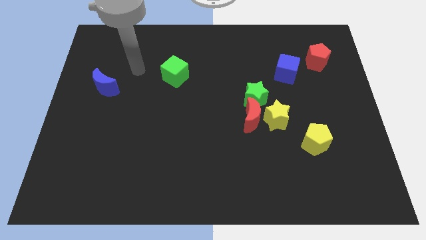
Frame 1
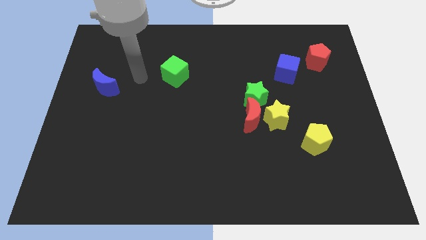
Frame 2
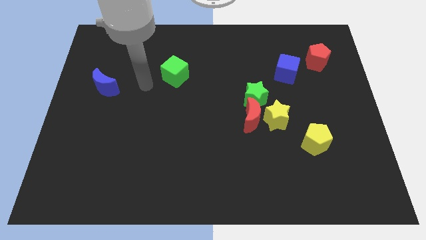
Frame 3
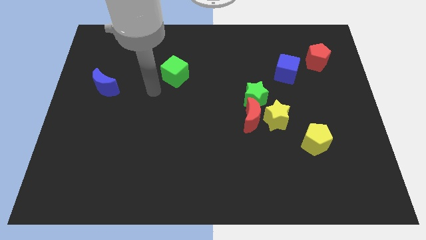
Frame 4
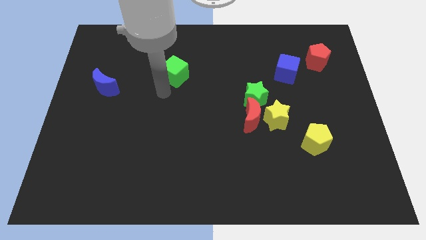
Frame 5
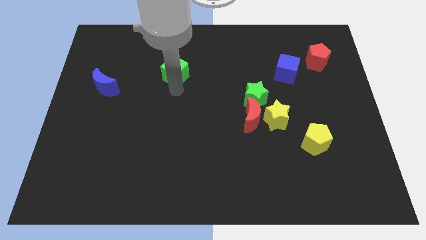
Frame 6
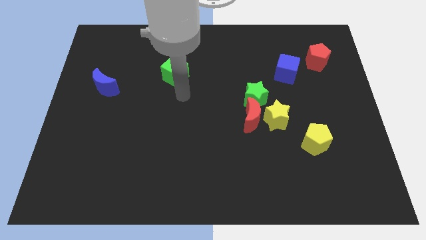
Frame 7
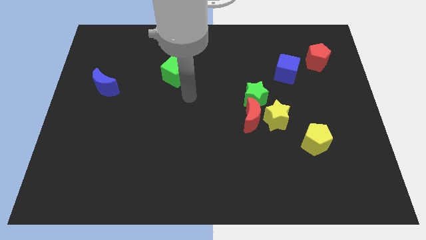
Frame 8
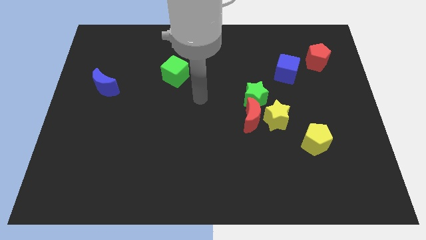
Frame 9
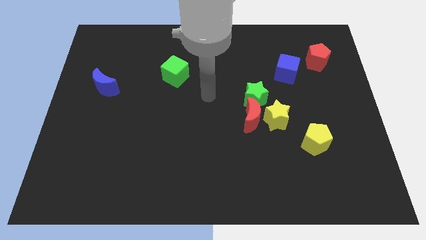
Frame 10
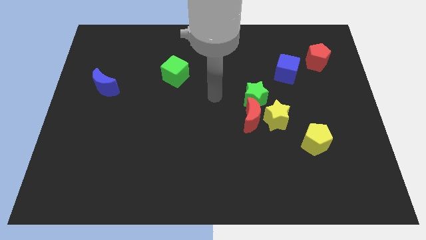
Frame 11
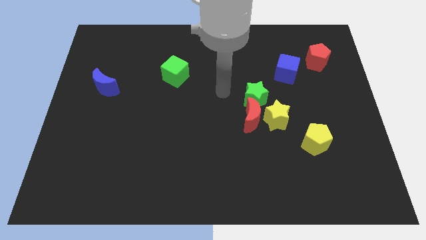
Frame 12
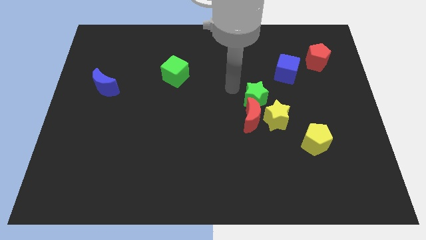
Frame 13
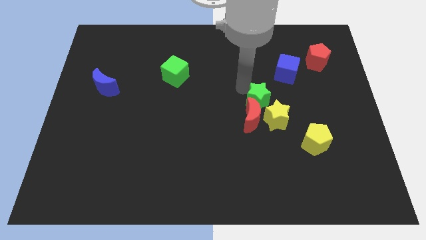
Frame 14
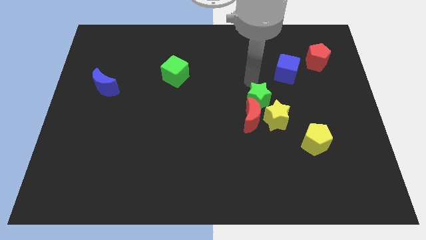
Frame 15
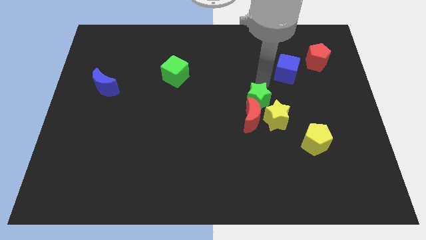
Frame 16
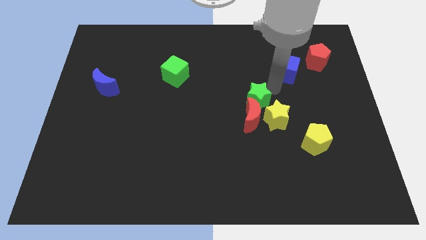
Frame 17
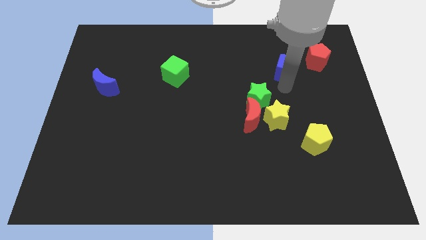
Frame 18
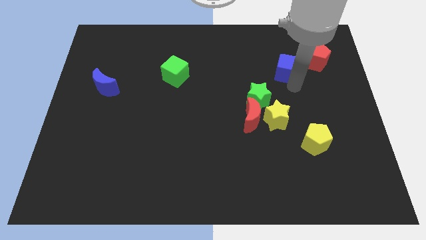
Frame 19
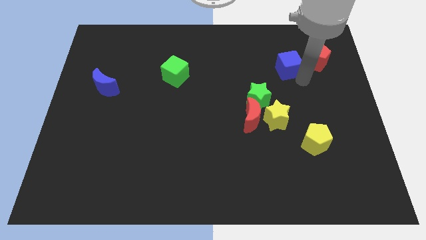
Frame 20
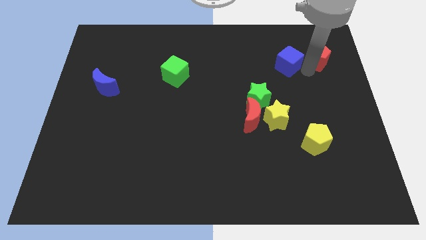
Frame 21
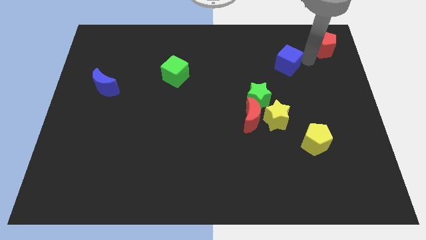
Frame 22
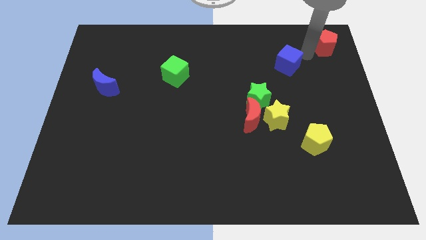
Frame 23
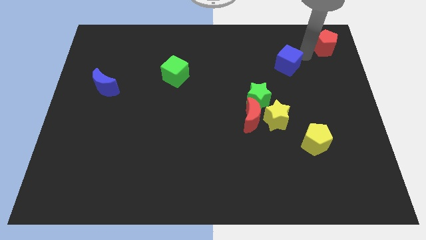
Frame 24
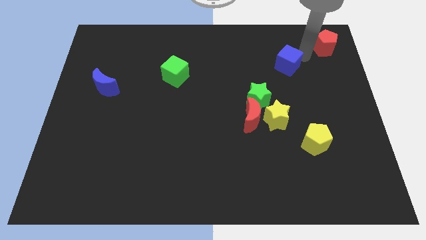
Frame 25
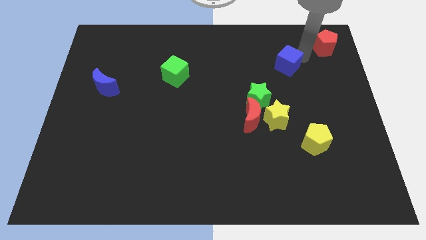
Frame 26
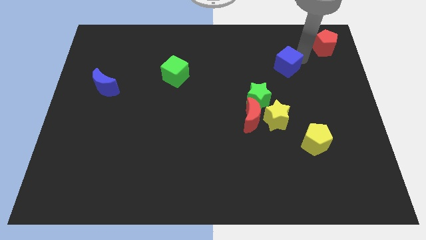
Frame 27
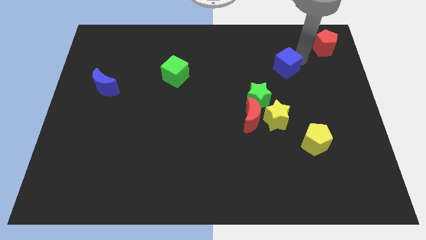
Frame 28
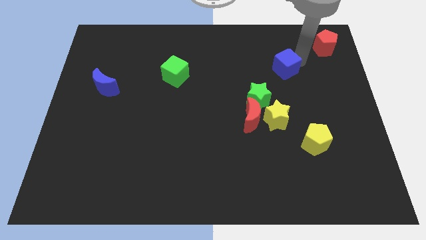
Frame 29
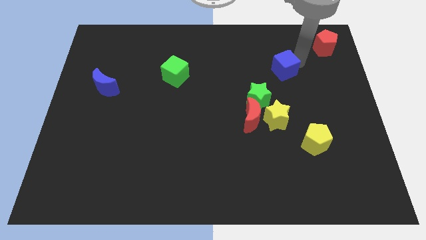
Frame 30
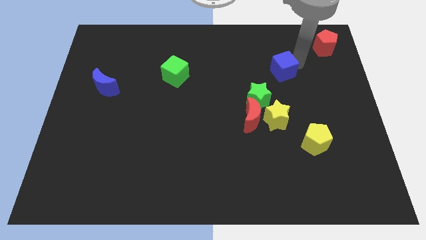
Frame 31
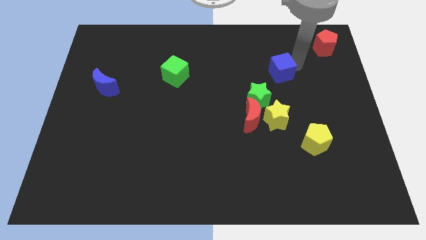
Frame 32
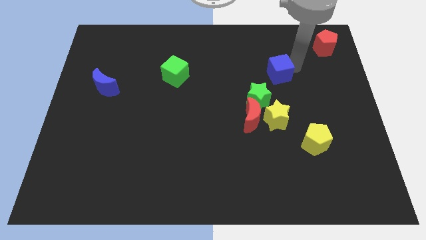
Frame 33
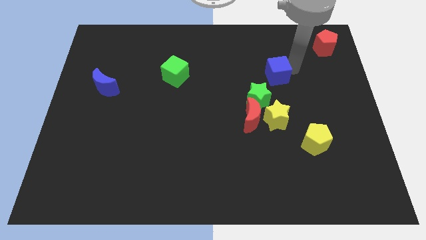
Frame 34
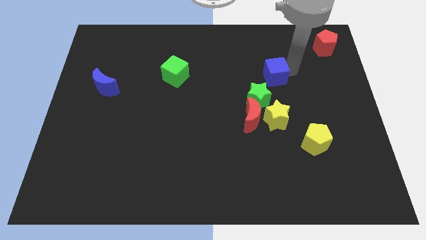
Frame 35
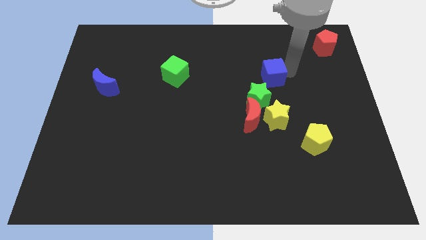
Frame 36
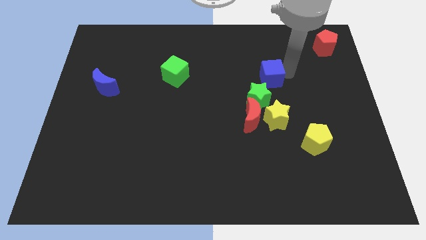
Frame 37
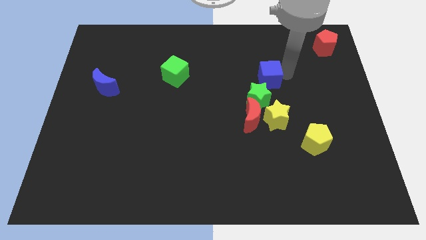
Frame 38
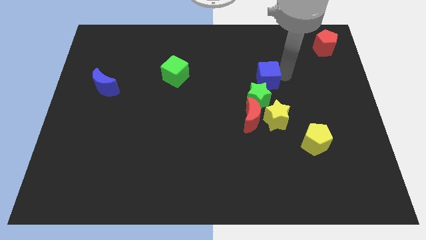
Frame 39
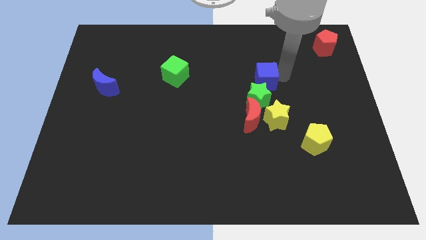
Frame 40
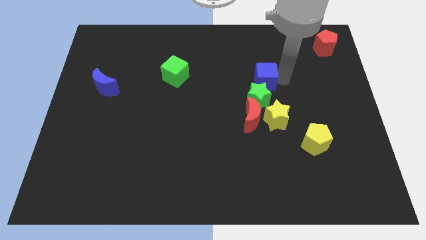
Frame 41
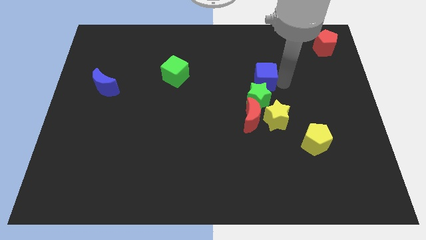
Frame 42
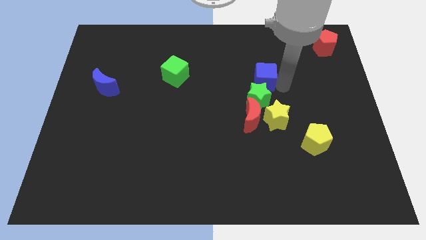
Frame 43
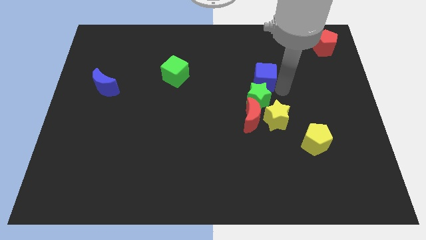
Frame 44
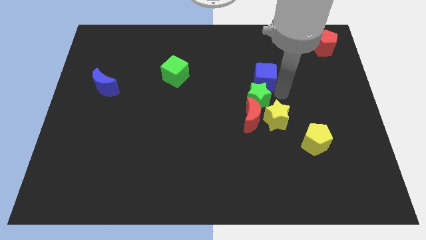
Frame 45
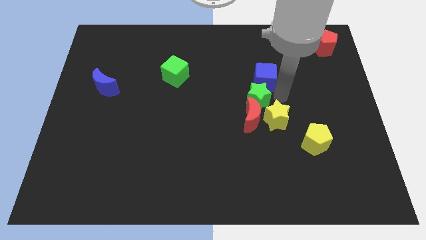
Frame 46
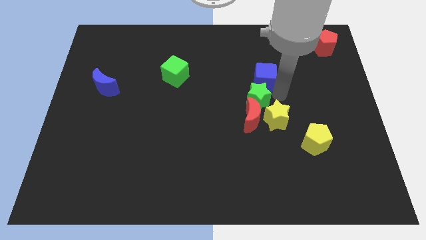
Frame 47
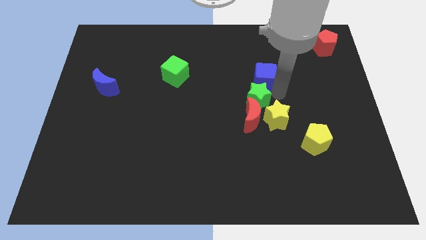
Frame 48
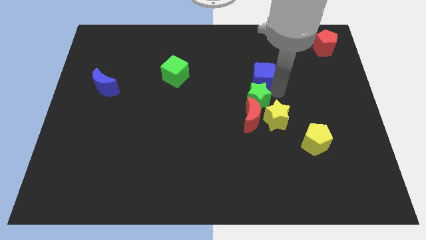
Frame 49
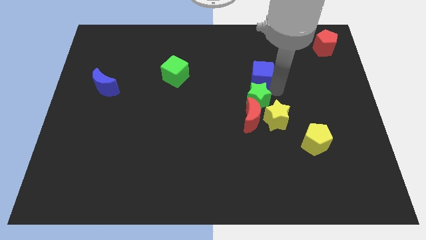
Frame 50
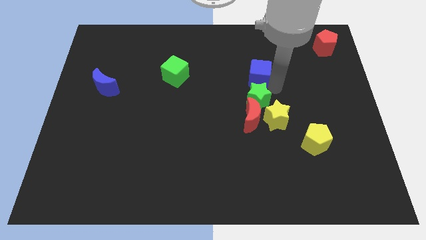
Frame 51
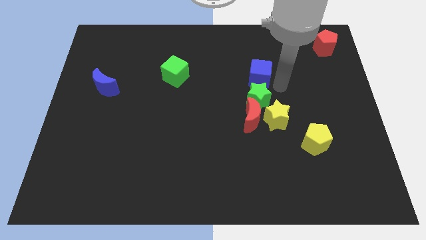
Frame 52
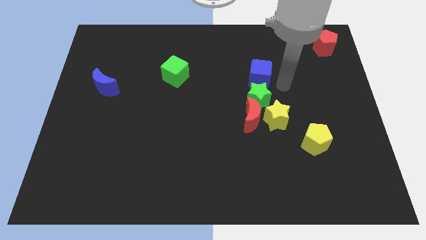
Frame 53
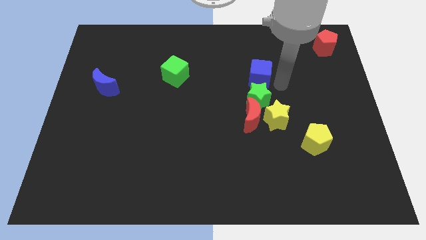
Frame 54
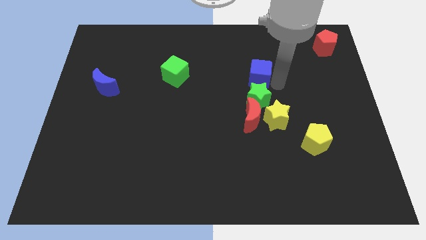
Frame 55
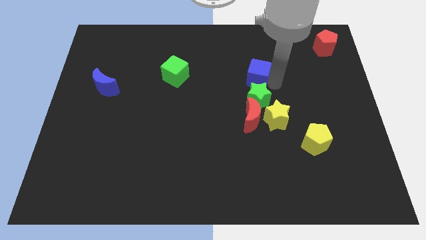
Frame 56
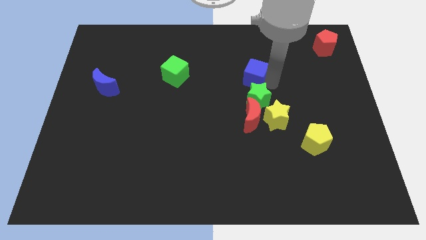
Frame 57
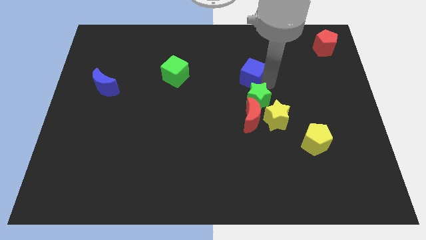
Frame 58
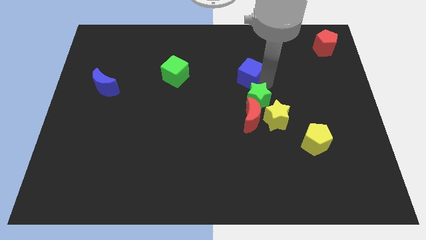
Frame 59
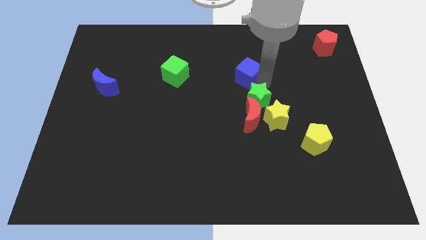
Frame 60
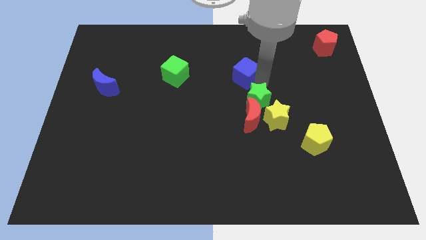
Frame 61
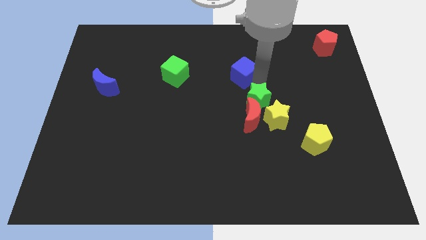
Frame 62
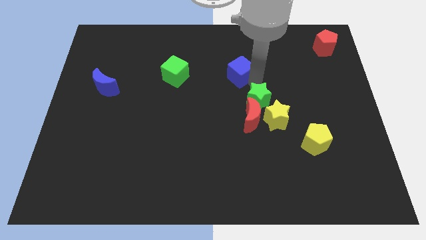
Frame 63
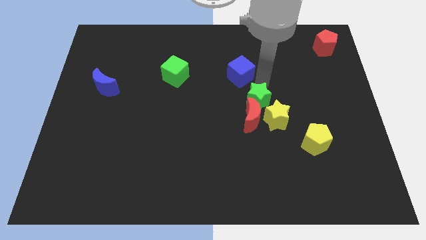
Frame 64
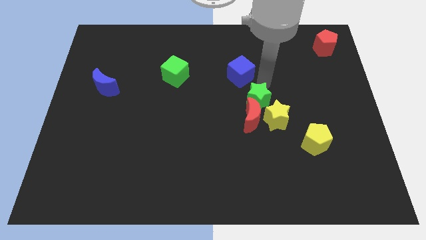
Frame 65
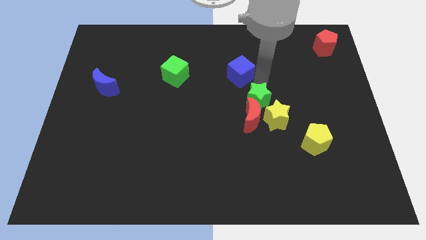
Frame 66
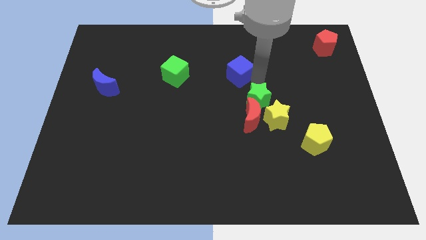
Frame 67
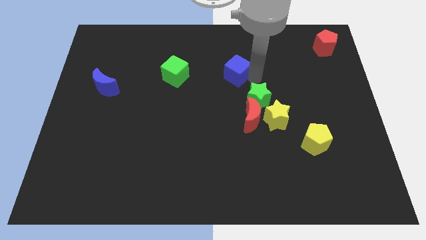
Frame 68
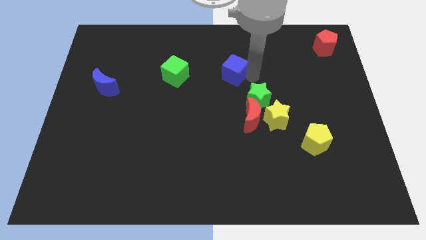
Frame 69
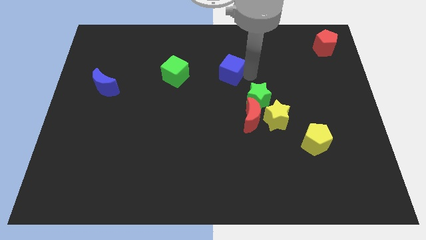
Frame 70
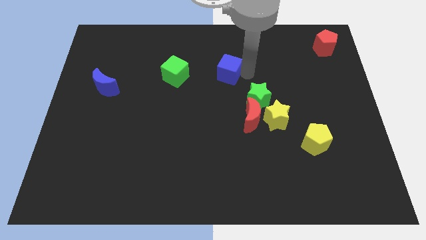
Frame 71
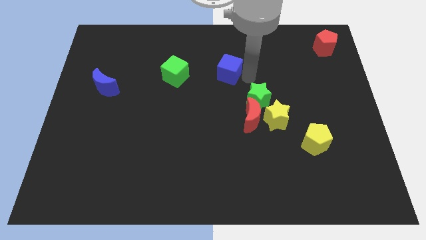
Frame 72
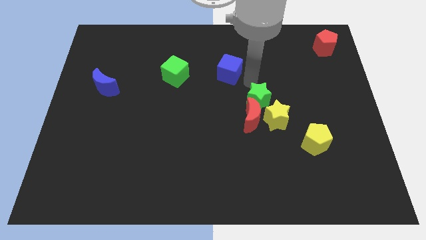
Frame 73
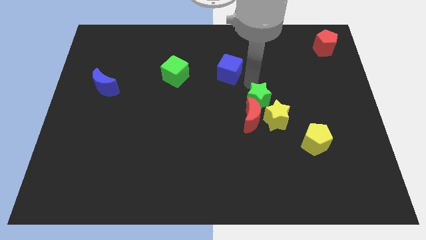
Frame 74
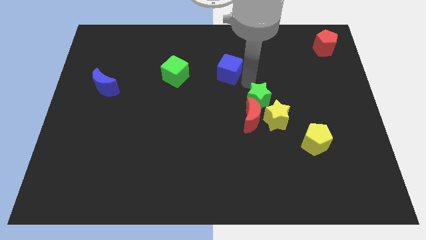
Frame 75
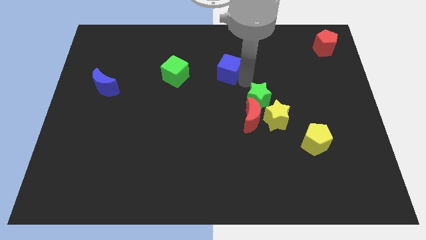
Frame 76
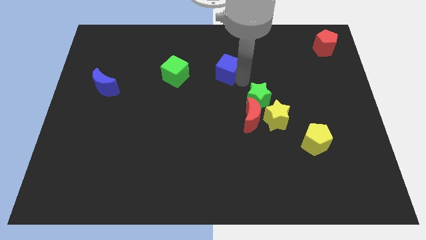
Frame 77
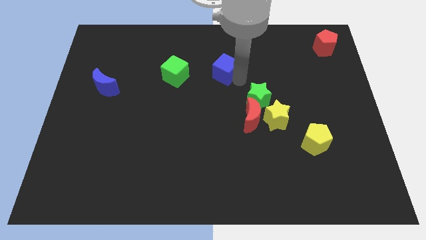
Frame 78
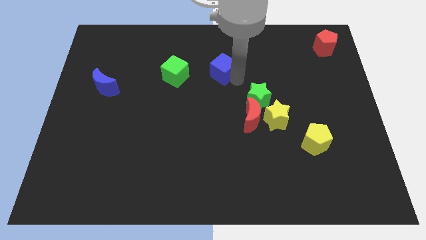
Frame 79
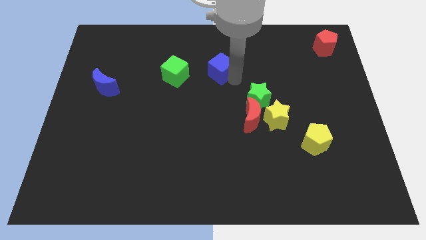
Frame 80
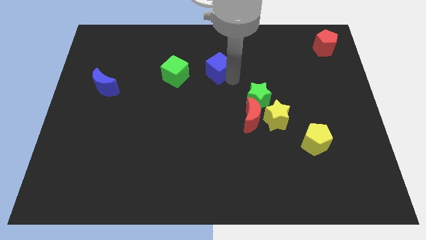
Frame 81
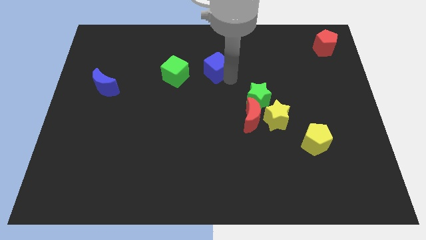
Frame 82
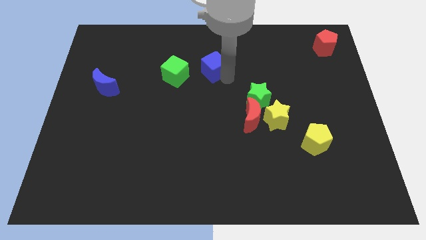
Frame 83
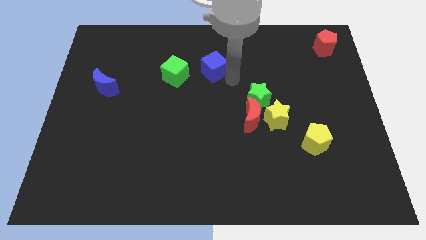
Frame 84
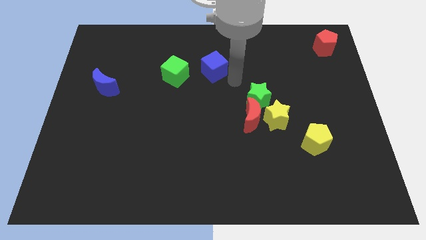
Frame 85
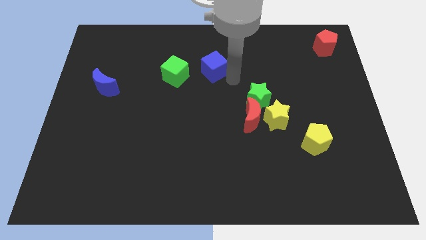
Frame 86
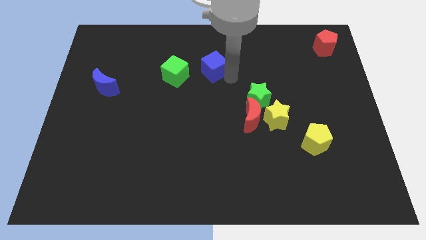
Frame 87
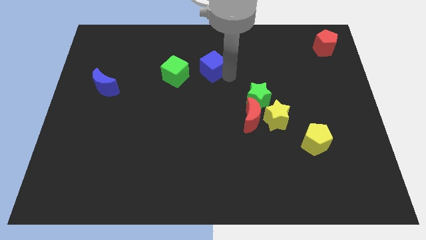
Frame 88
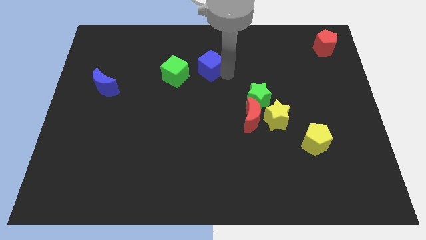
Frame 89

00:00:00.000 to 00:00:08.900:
slide the blue cube to the top right of the green cube
